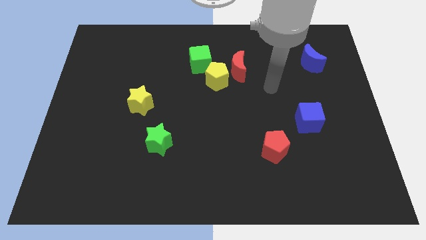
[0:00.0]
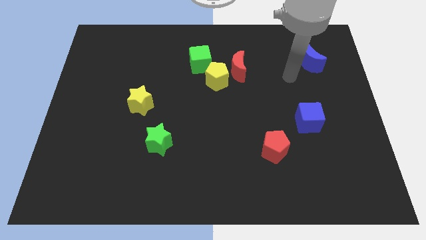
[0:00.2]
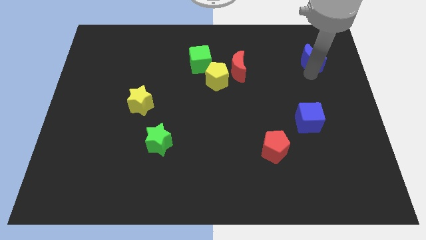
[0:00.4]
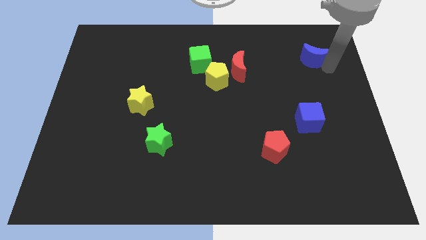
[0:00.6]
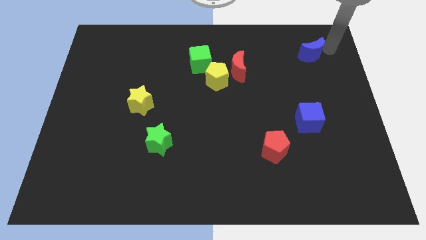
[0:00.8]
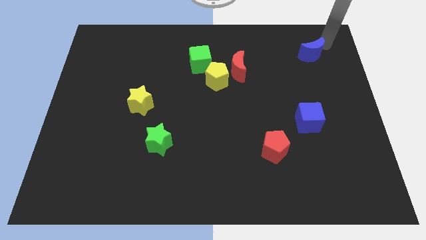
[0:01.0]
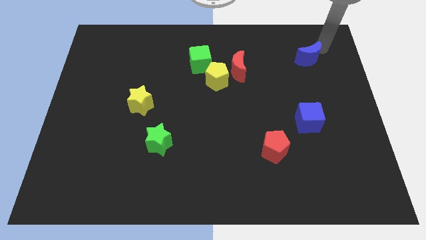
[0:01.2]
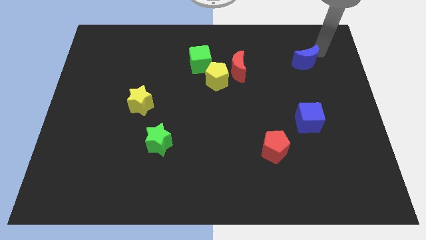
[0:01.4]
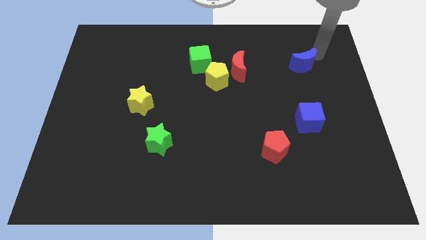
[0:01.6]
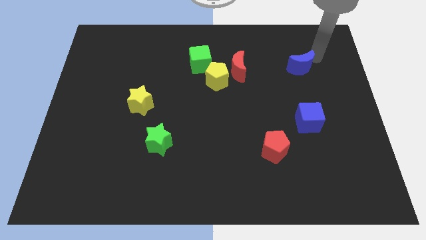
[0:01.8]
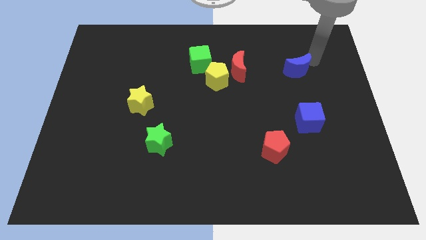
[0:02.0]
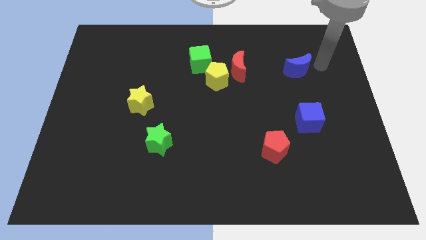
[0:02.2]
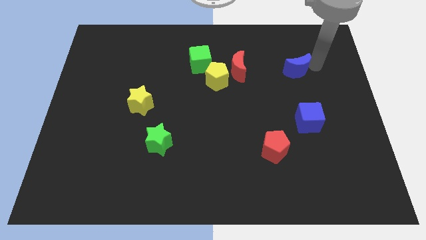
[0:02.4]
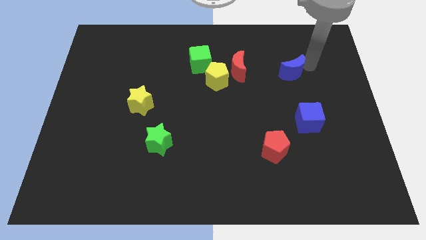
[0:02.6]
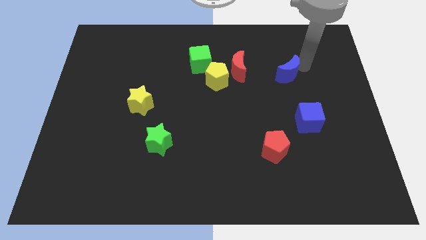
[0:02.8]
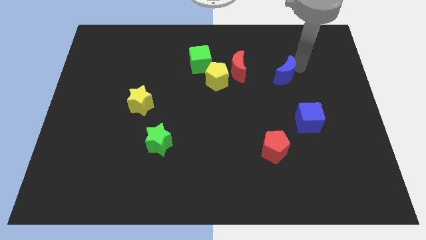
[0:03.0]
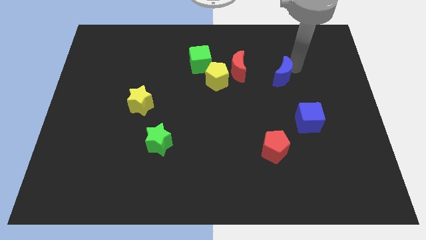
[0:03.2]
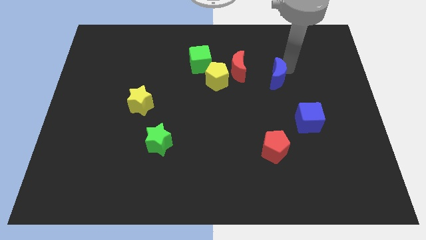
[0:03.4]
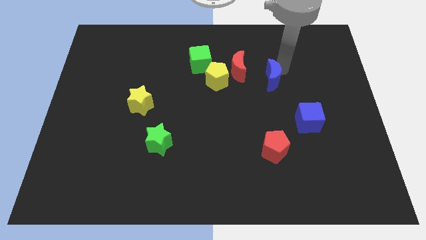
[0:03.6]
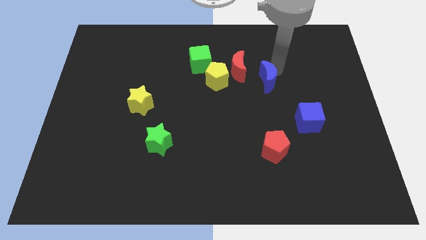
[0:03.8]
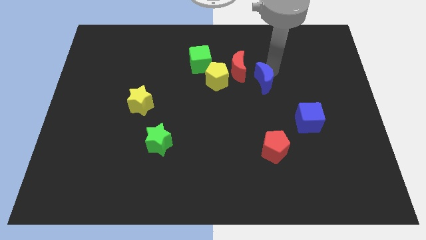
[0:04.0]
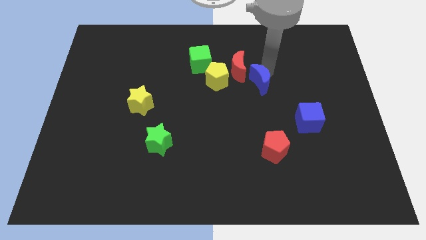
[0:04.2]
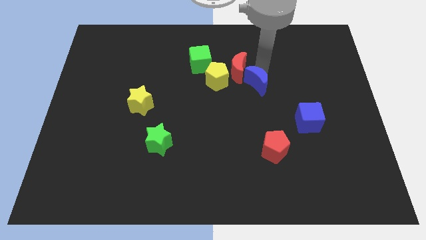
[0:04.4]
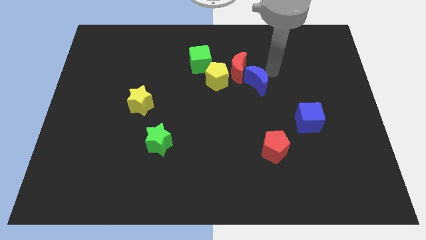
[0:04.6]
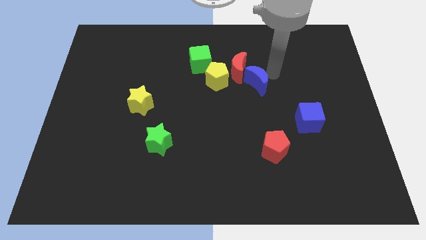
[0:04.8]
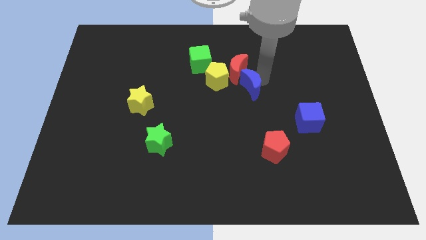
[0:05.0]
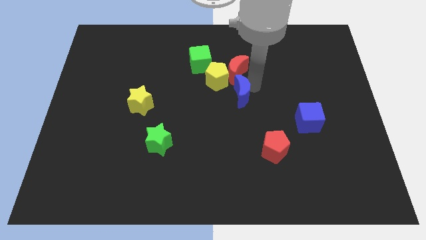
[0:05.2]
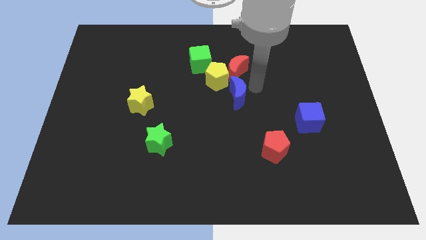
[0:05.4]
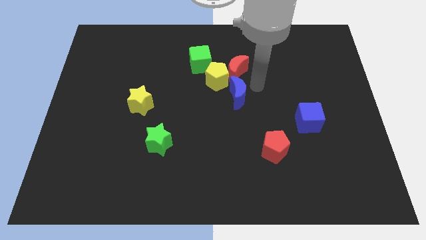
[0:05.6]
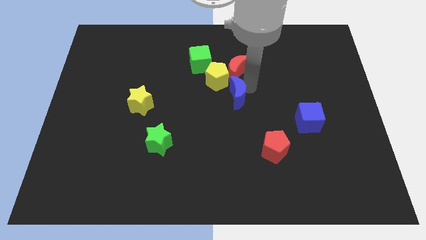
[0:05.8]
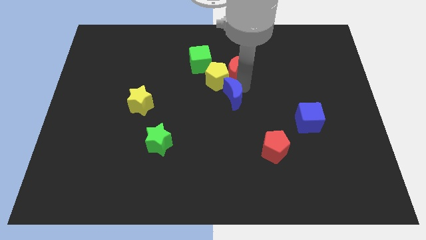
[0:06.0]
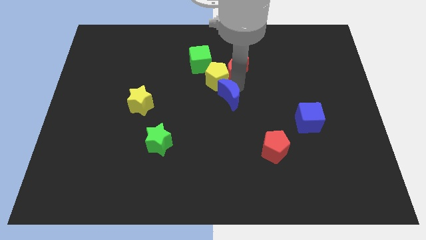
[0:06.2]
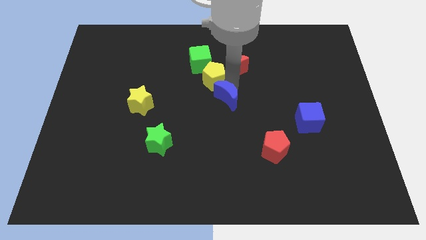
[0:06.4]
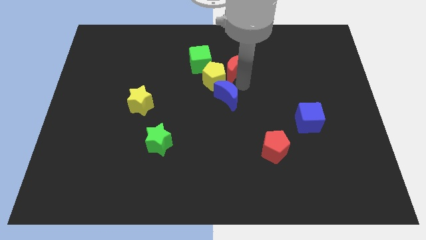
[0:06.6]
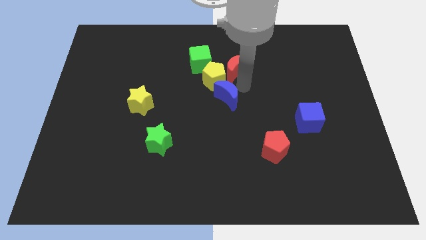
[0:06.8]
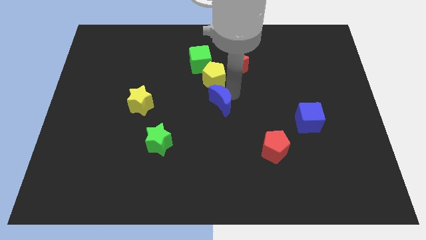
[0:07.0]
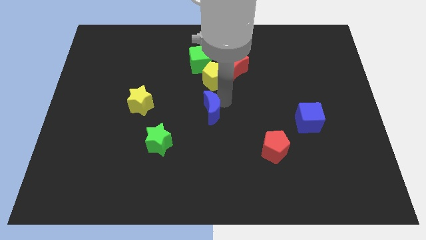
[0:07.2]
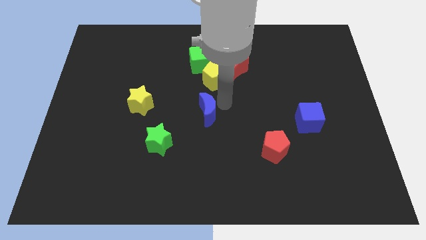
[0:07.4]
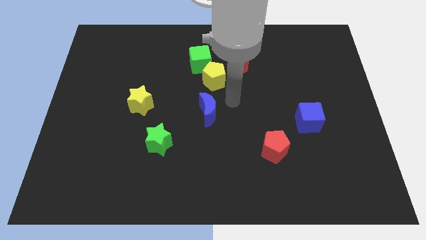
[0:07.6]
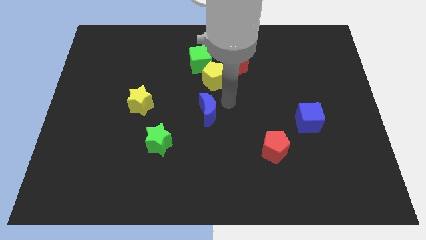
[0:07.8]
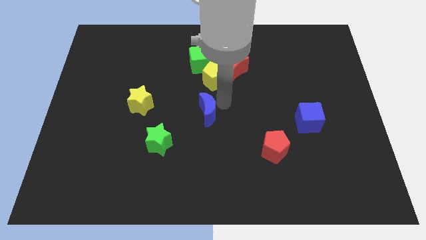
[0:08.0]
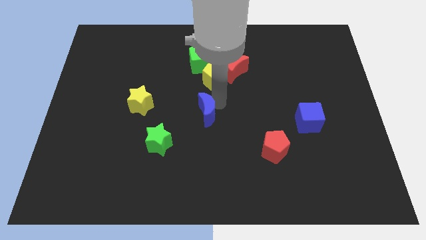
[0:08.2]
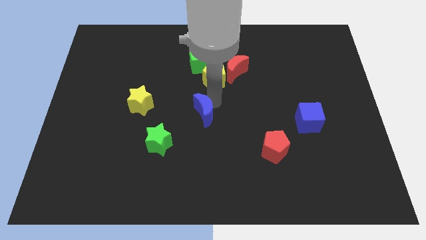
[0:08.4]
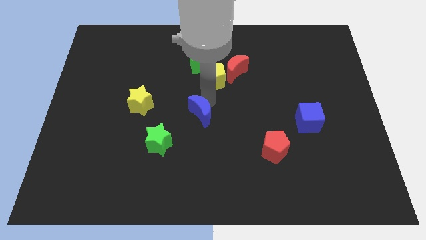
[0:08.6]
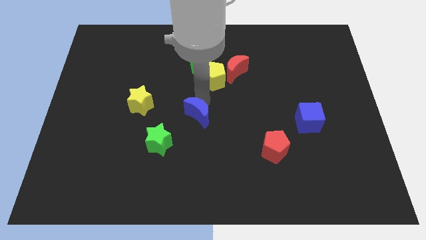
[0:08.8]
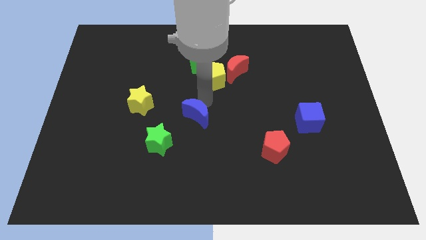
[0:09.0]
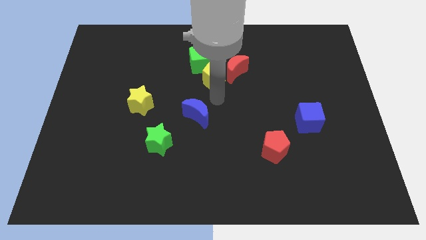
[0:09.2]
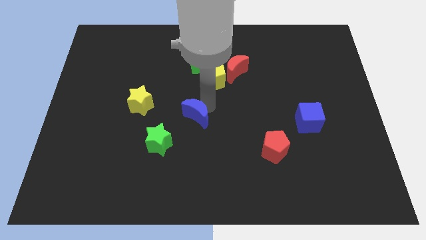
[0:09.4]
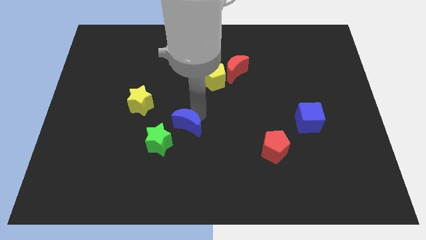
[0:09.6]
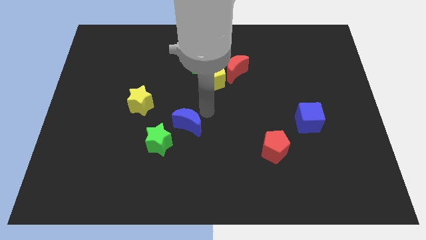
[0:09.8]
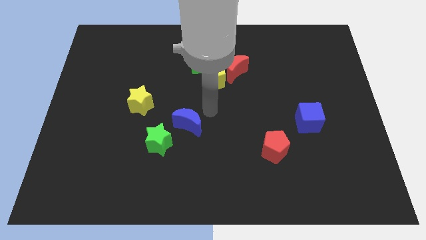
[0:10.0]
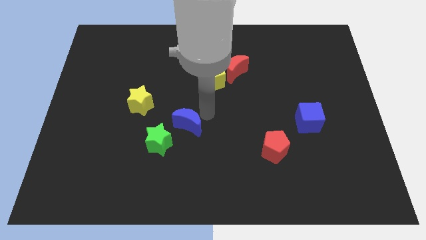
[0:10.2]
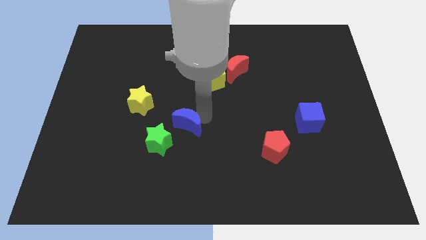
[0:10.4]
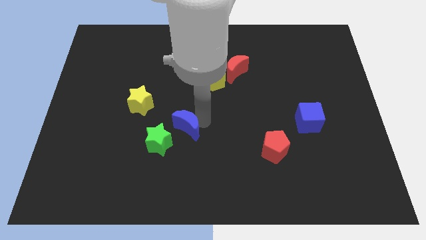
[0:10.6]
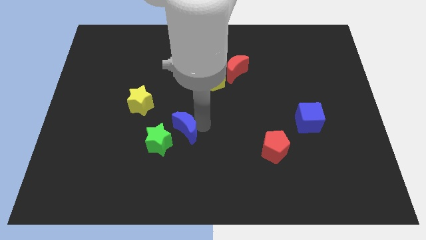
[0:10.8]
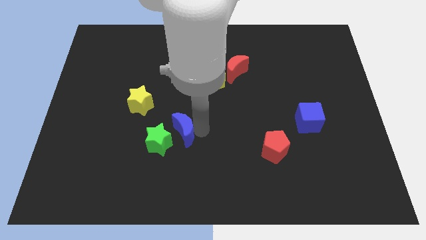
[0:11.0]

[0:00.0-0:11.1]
put the blue moon to the green star

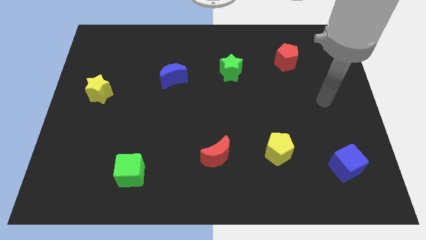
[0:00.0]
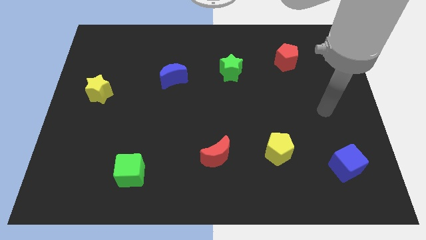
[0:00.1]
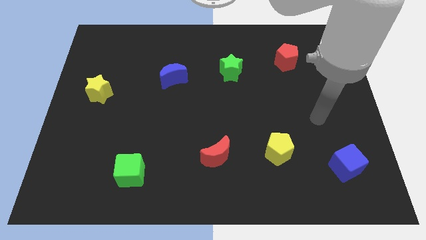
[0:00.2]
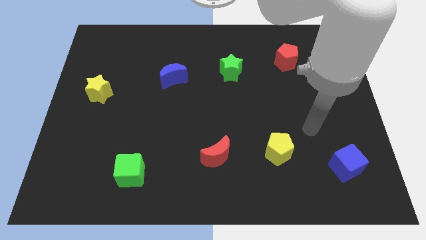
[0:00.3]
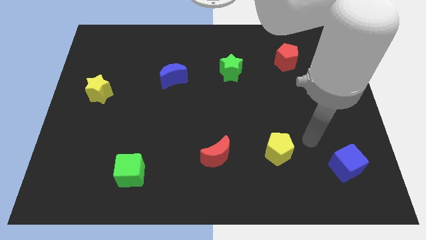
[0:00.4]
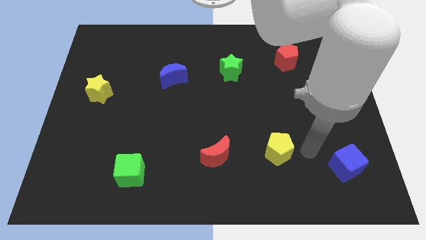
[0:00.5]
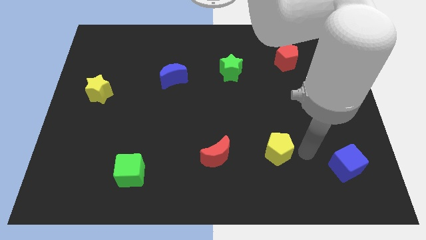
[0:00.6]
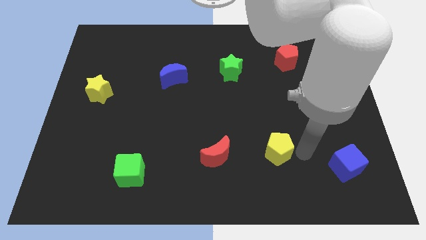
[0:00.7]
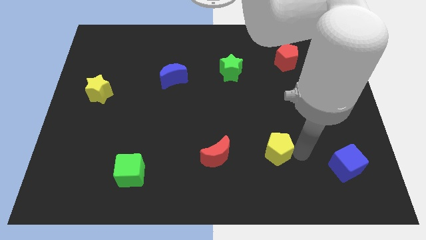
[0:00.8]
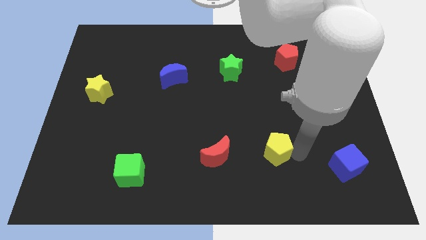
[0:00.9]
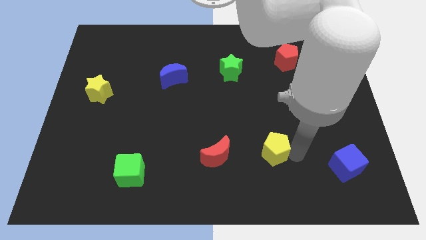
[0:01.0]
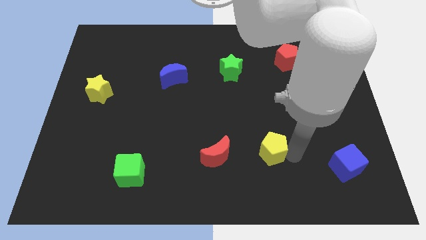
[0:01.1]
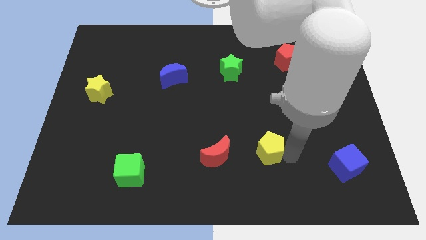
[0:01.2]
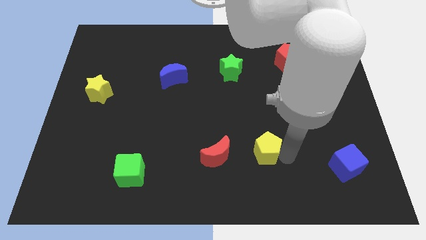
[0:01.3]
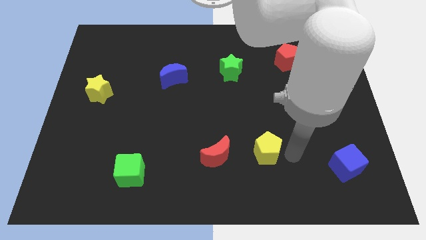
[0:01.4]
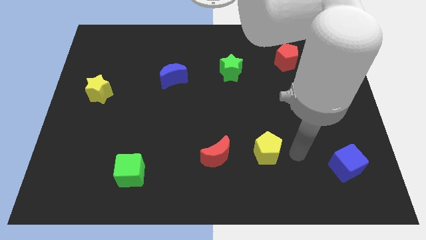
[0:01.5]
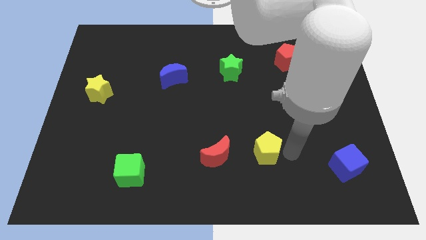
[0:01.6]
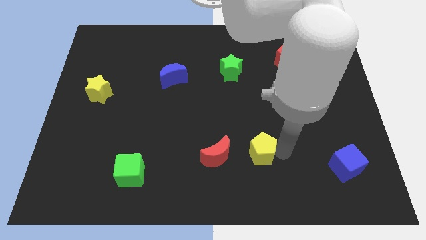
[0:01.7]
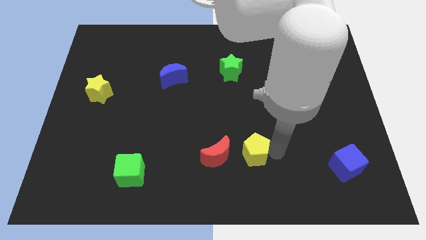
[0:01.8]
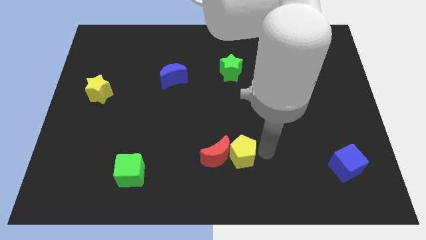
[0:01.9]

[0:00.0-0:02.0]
push the yellow pentagon towards the red moon

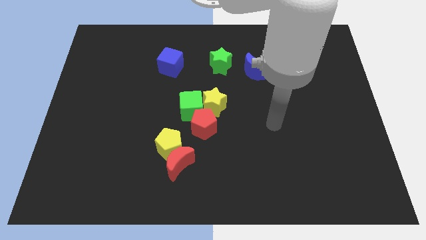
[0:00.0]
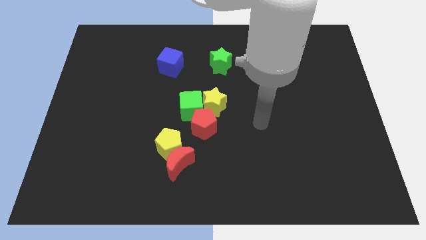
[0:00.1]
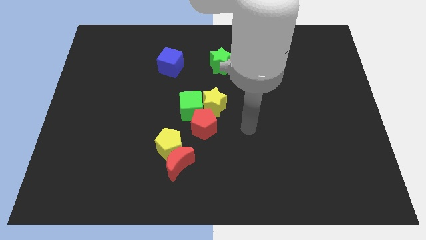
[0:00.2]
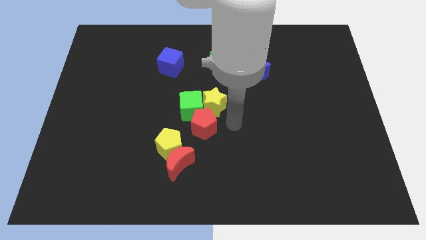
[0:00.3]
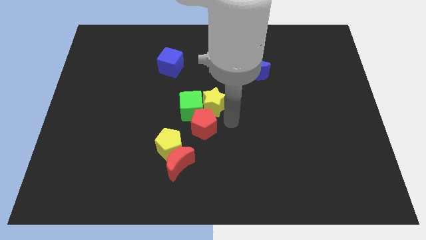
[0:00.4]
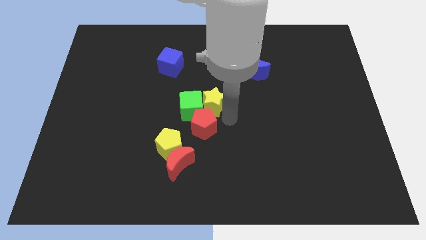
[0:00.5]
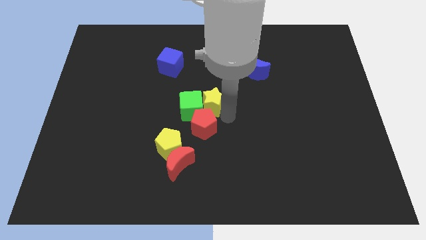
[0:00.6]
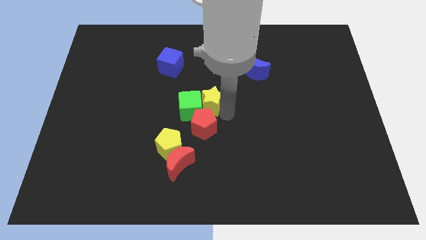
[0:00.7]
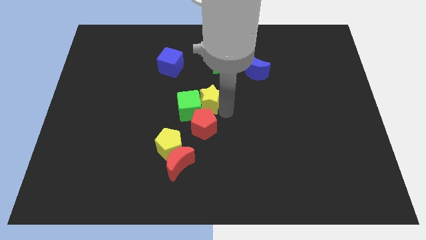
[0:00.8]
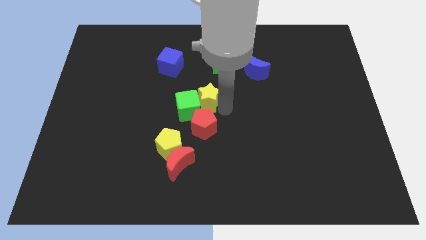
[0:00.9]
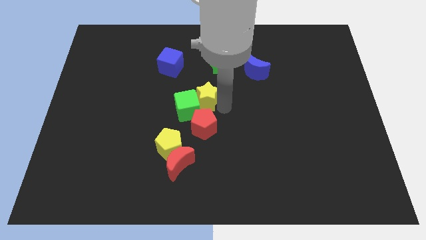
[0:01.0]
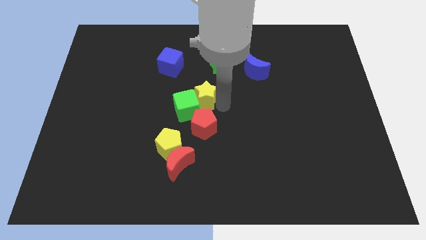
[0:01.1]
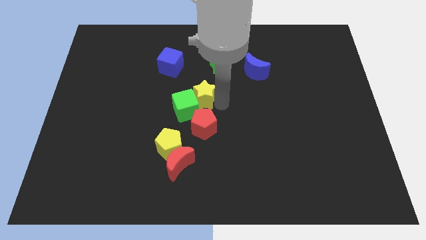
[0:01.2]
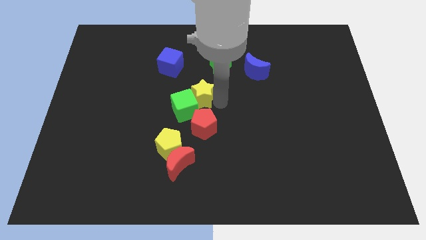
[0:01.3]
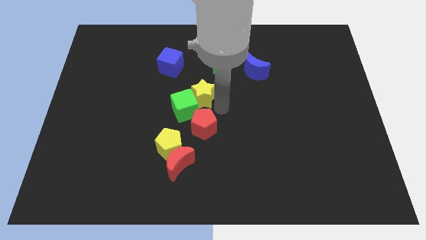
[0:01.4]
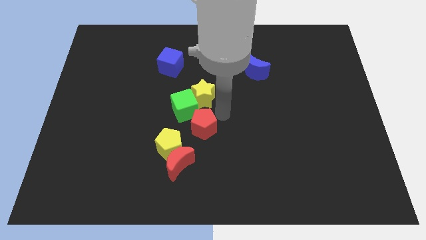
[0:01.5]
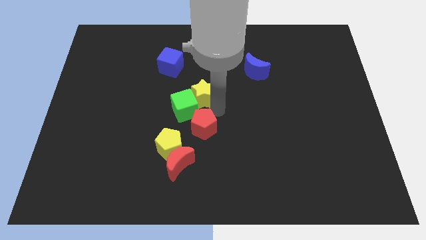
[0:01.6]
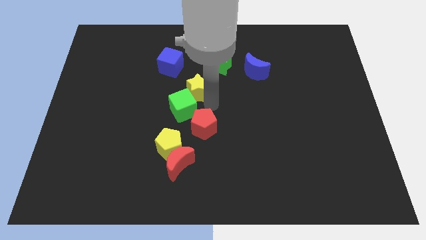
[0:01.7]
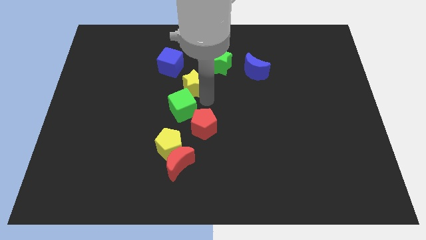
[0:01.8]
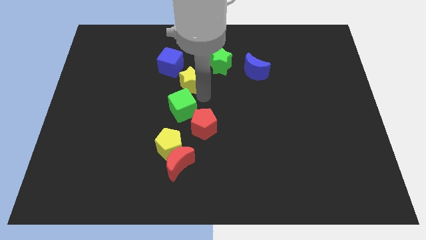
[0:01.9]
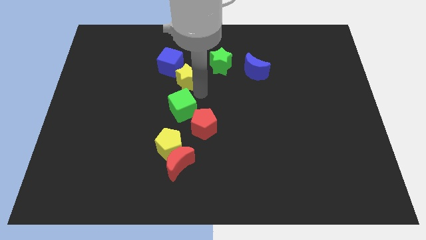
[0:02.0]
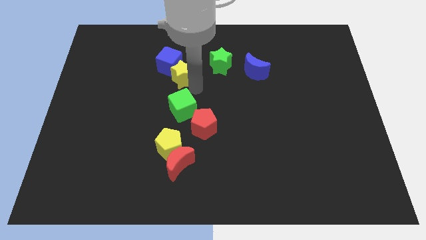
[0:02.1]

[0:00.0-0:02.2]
put the yellow star to the blue cube
